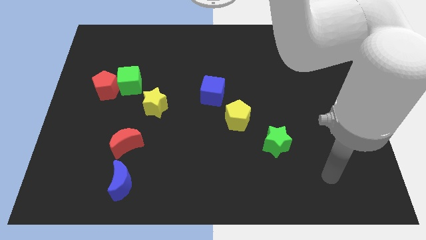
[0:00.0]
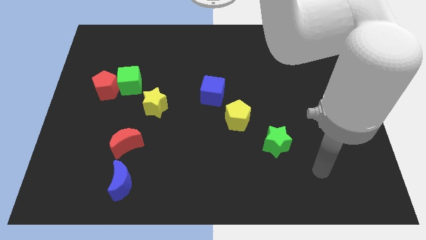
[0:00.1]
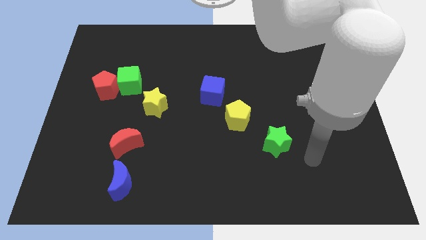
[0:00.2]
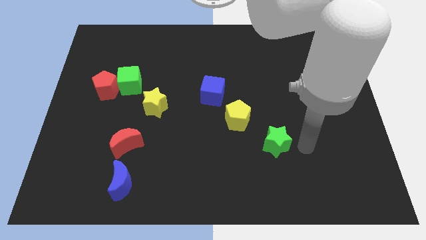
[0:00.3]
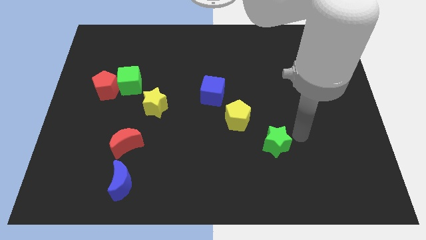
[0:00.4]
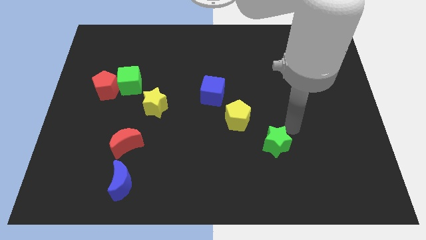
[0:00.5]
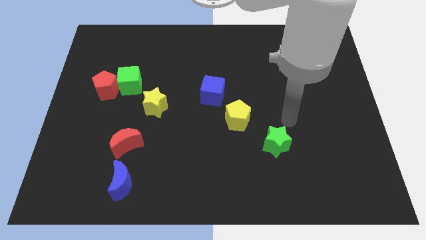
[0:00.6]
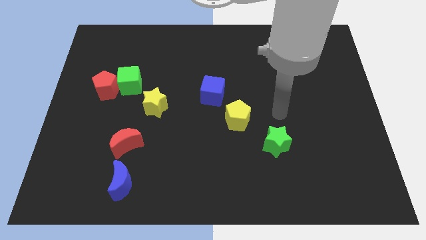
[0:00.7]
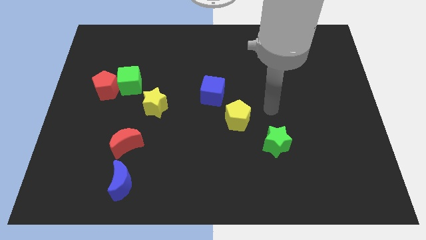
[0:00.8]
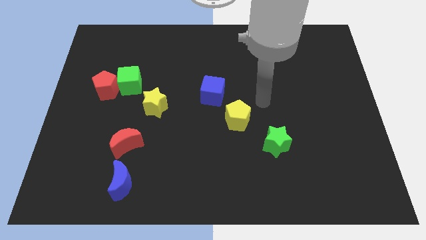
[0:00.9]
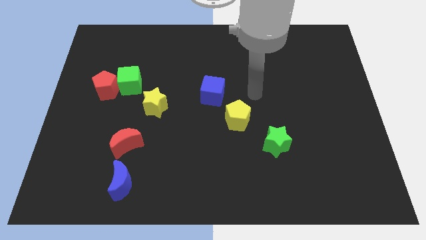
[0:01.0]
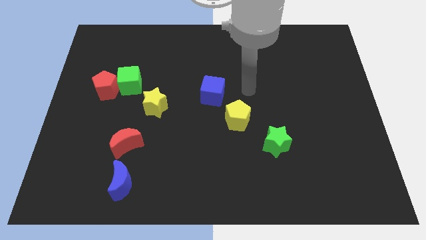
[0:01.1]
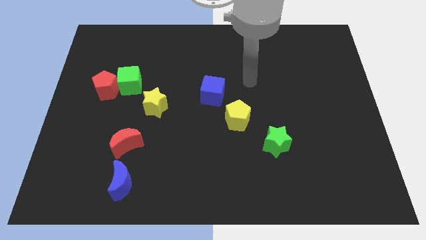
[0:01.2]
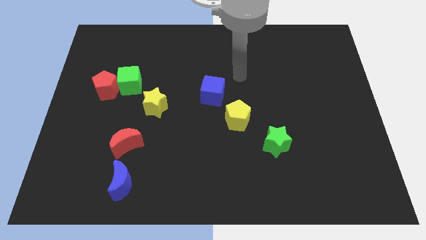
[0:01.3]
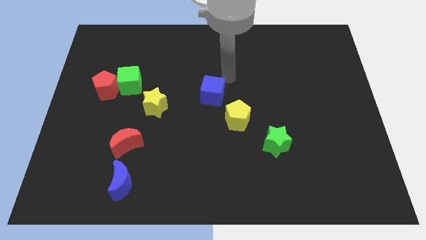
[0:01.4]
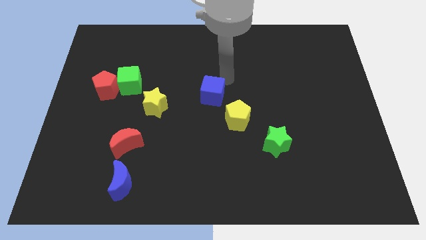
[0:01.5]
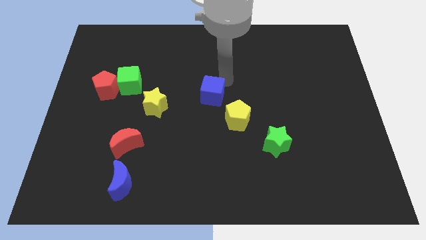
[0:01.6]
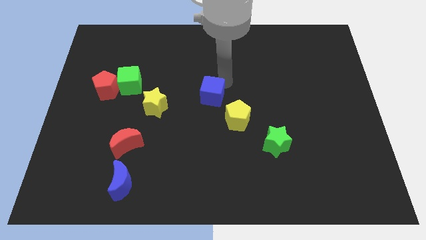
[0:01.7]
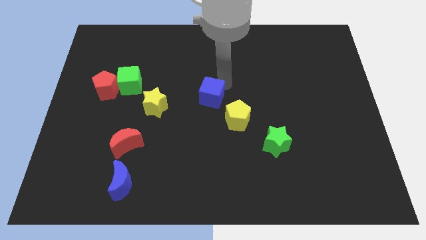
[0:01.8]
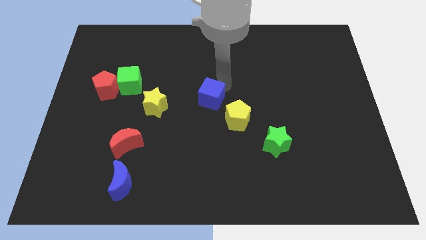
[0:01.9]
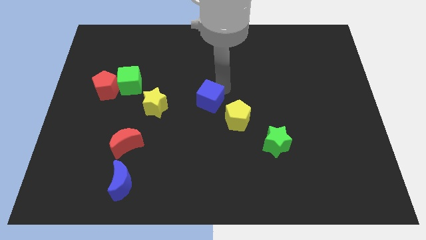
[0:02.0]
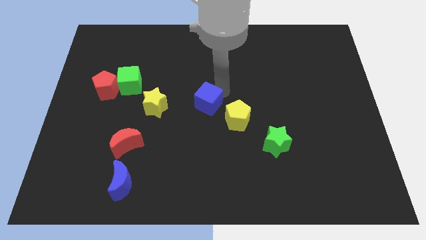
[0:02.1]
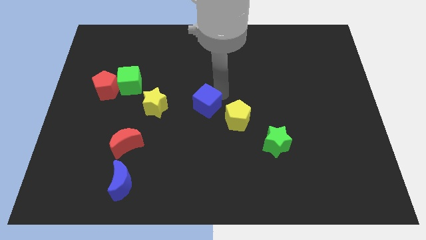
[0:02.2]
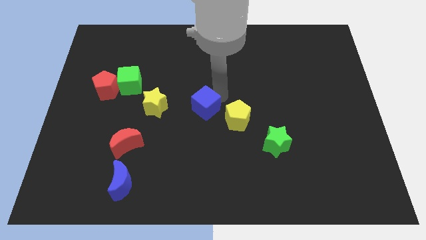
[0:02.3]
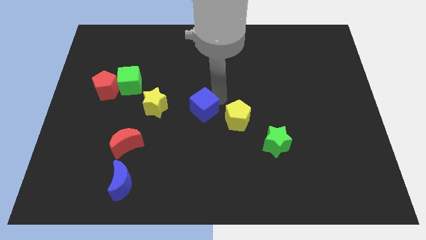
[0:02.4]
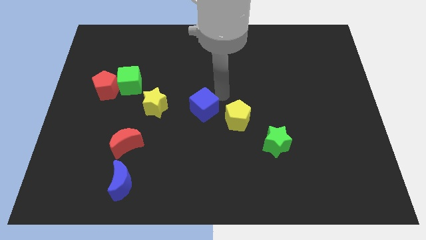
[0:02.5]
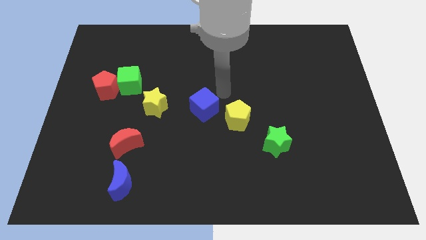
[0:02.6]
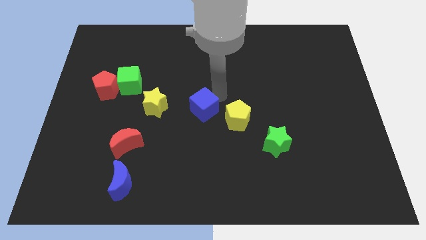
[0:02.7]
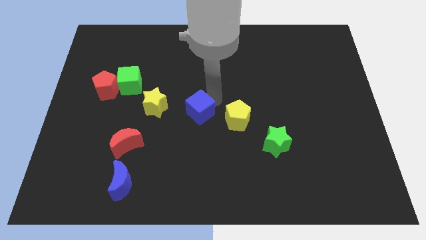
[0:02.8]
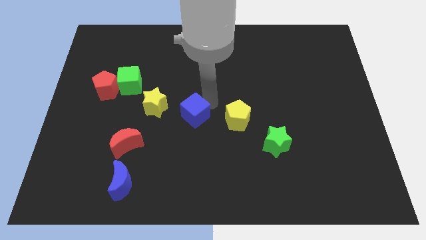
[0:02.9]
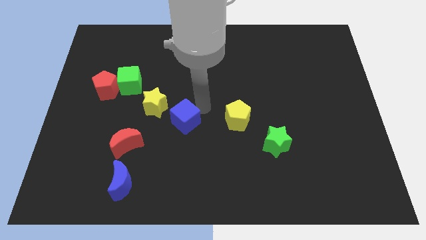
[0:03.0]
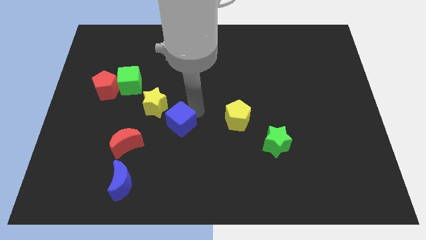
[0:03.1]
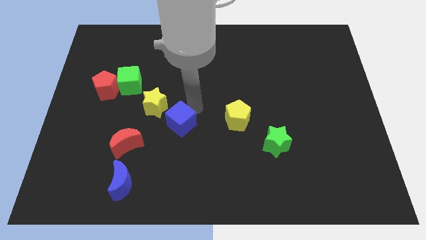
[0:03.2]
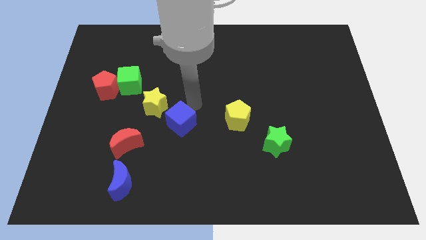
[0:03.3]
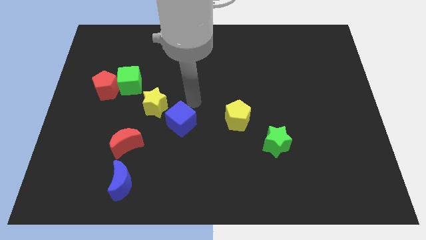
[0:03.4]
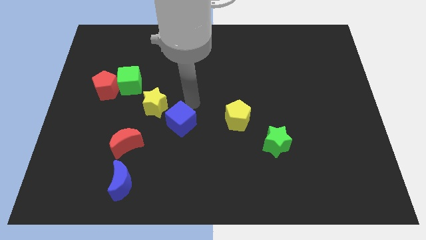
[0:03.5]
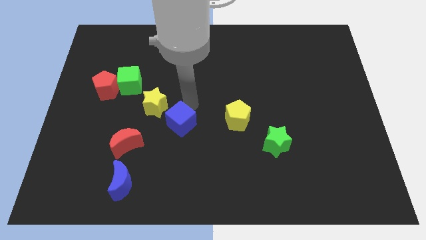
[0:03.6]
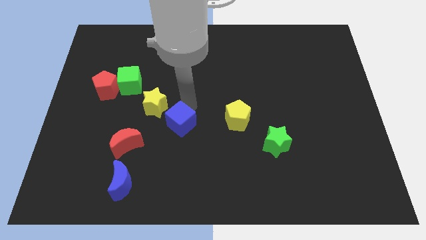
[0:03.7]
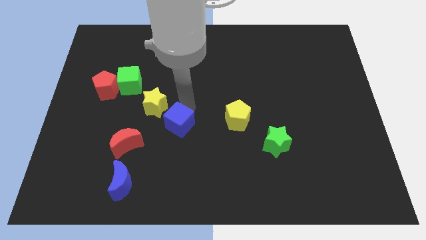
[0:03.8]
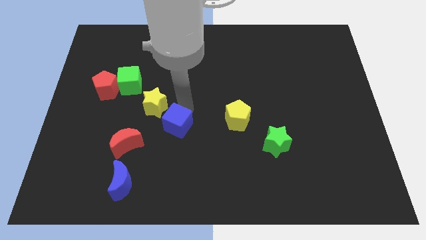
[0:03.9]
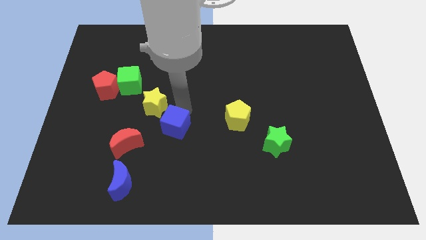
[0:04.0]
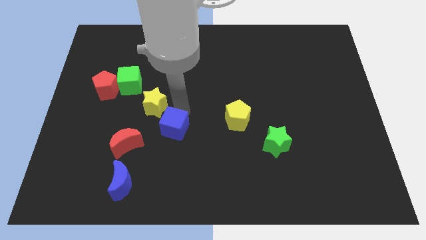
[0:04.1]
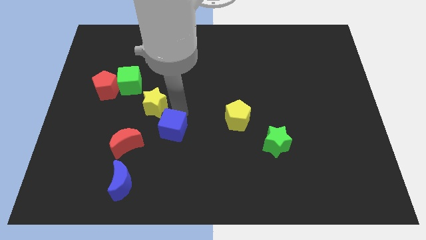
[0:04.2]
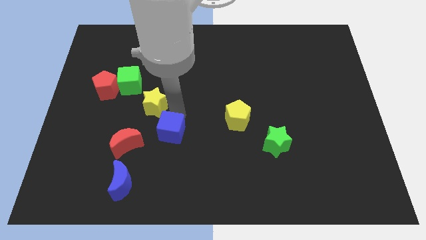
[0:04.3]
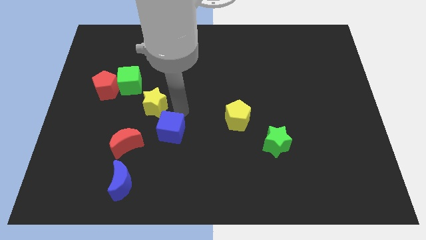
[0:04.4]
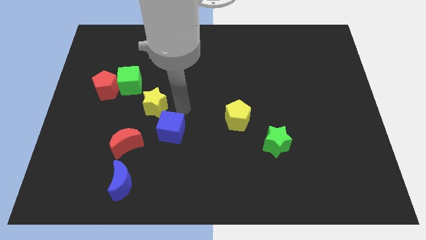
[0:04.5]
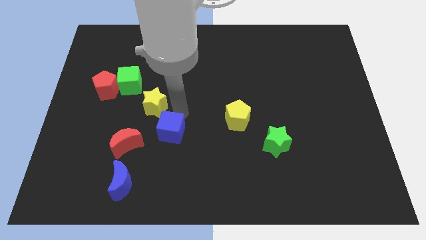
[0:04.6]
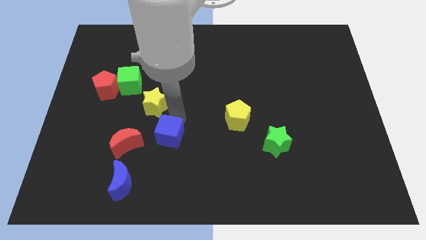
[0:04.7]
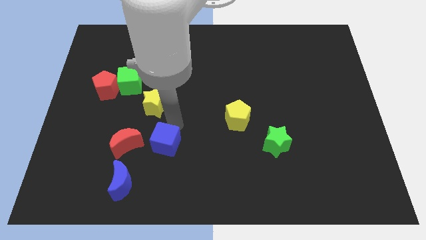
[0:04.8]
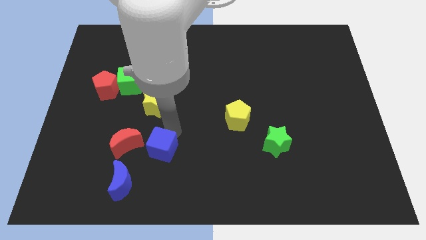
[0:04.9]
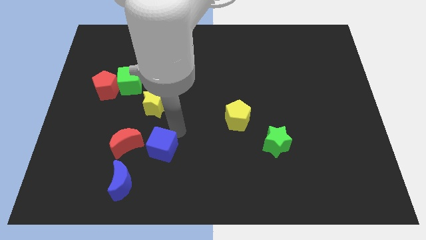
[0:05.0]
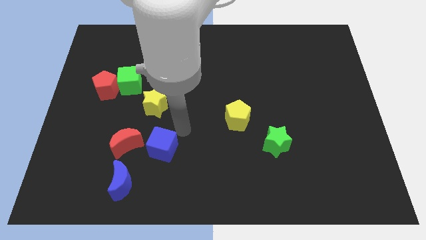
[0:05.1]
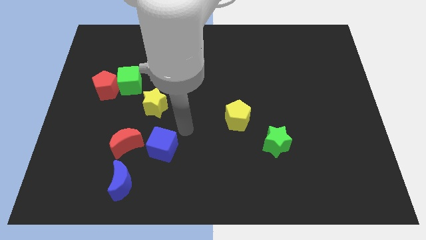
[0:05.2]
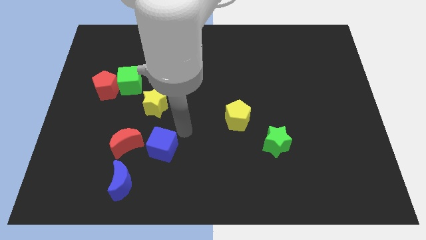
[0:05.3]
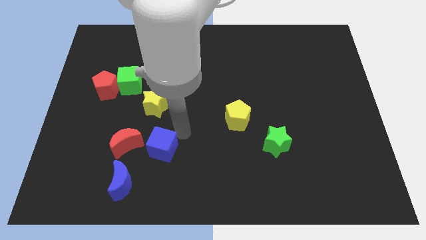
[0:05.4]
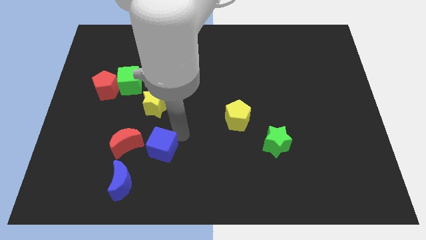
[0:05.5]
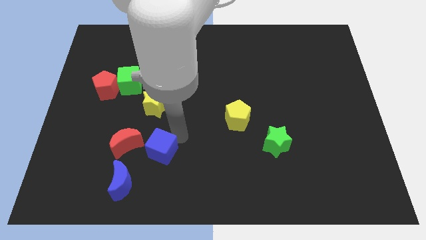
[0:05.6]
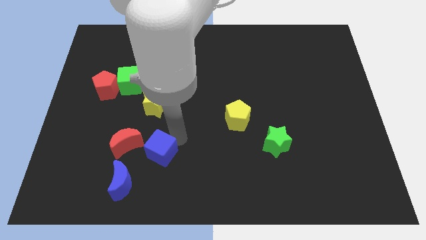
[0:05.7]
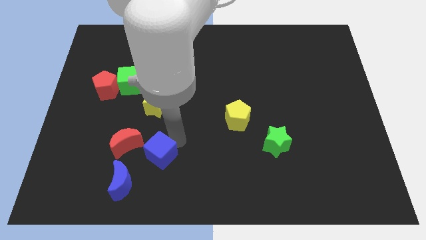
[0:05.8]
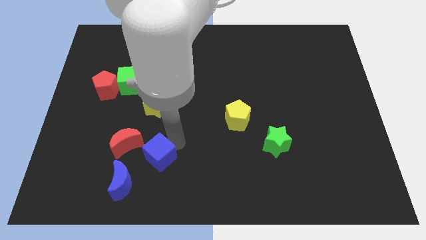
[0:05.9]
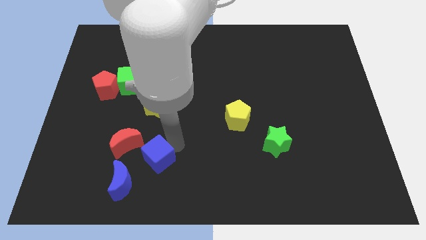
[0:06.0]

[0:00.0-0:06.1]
push the blue cube down and then left

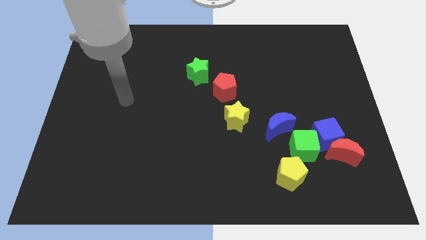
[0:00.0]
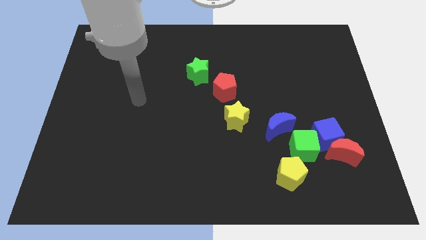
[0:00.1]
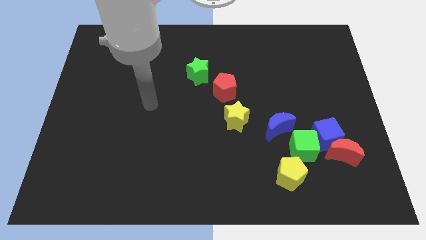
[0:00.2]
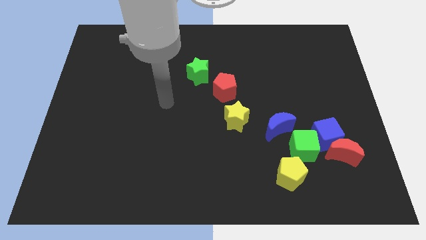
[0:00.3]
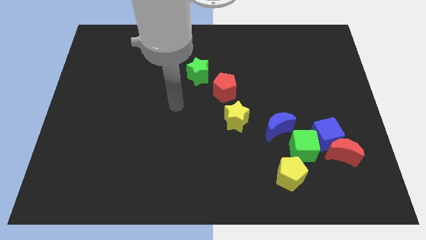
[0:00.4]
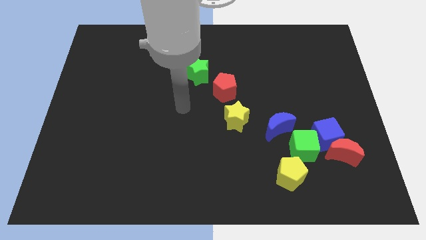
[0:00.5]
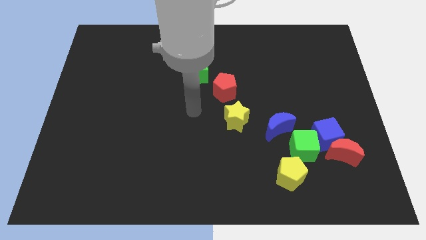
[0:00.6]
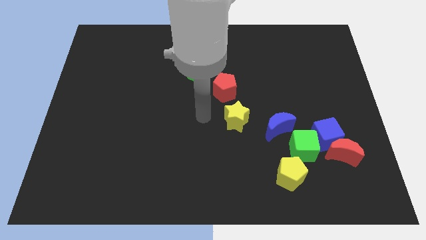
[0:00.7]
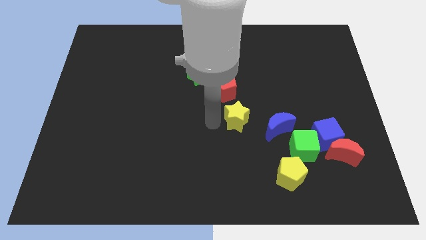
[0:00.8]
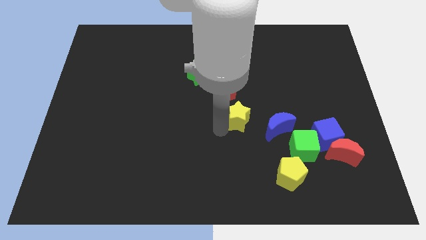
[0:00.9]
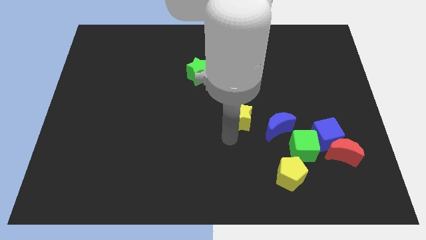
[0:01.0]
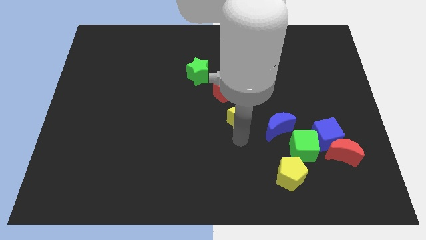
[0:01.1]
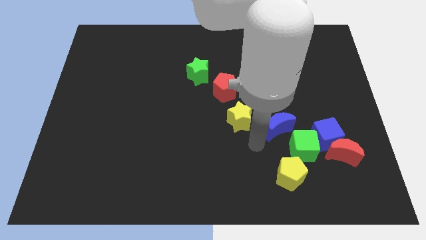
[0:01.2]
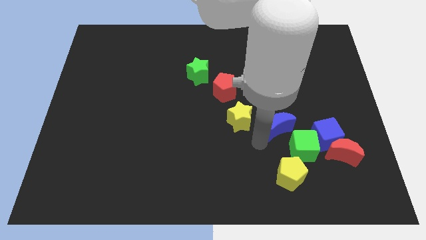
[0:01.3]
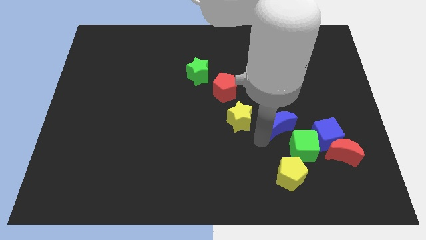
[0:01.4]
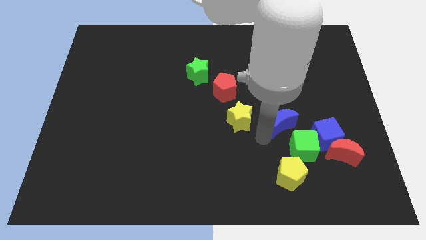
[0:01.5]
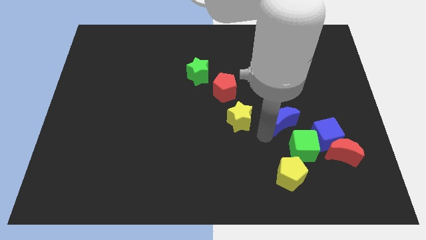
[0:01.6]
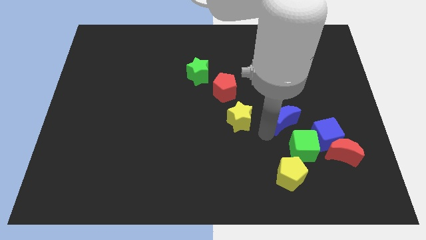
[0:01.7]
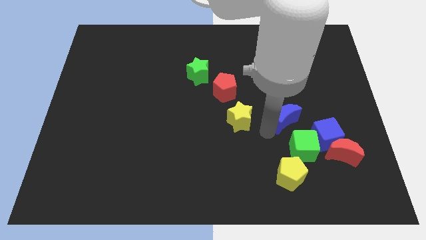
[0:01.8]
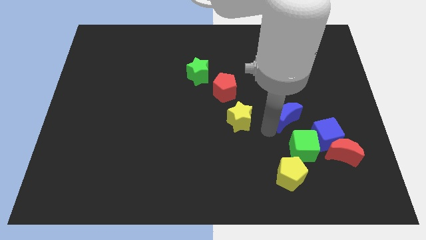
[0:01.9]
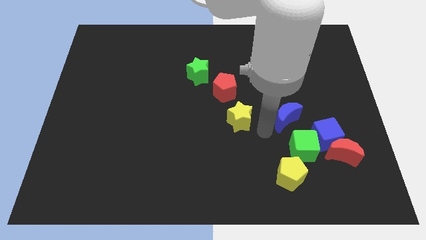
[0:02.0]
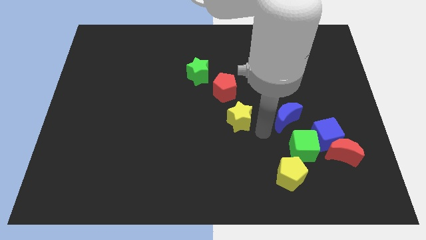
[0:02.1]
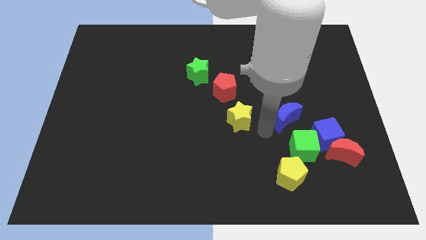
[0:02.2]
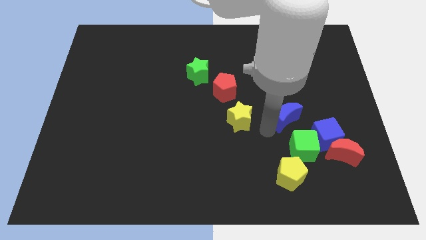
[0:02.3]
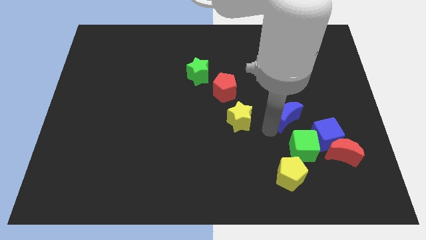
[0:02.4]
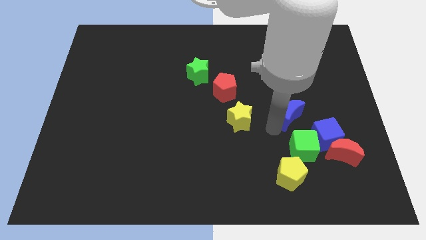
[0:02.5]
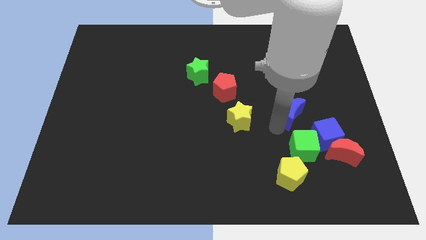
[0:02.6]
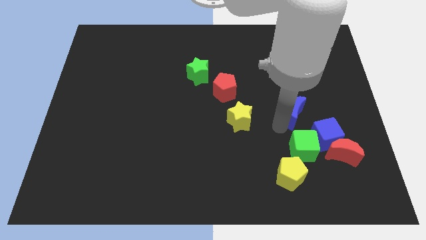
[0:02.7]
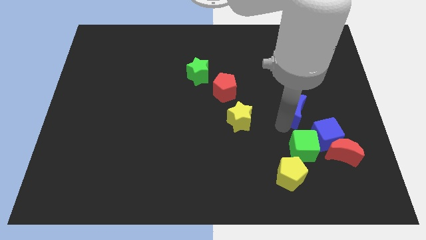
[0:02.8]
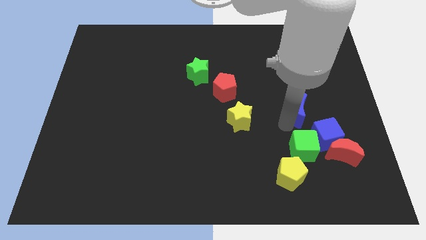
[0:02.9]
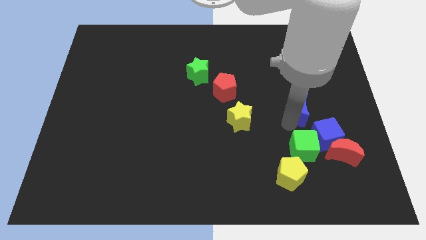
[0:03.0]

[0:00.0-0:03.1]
slide the blue moon diagonally up and right slightly
